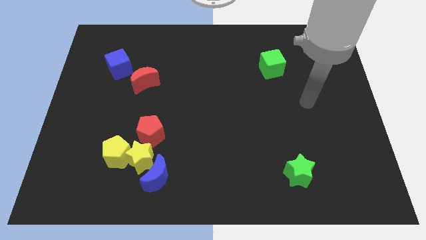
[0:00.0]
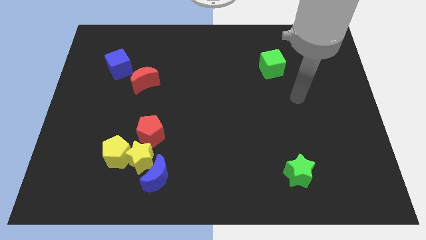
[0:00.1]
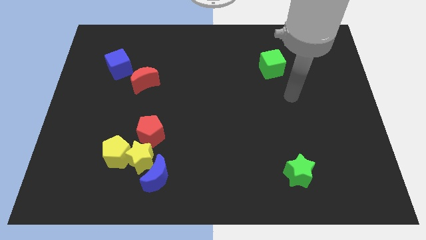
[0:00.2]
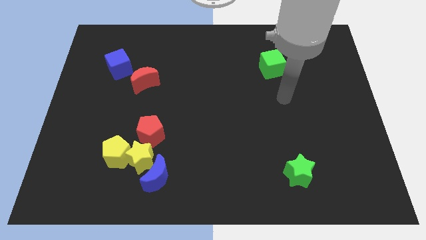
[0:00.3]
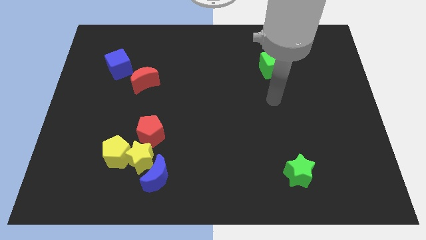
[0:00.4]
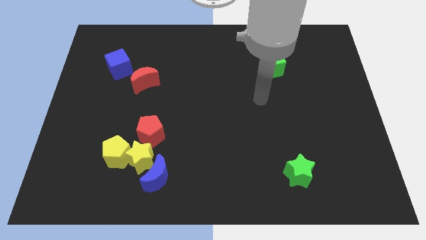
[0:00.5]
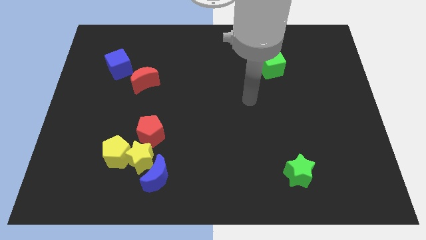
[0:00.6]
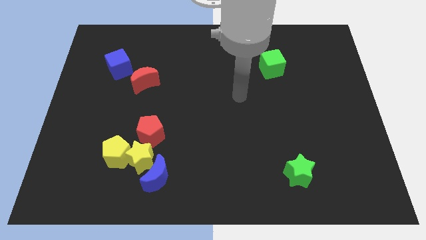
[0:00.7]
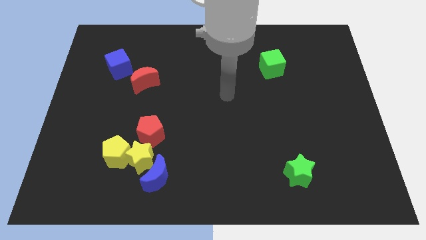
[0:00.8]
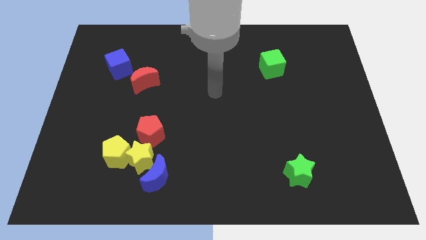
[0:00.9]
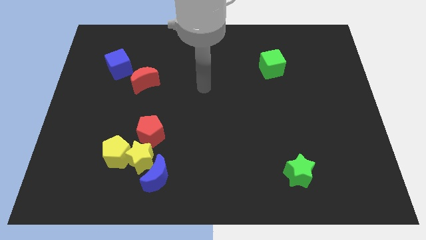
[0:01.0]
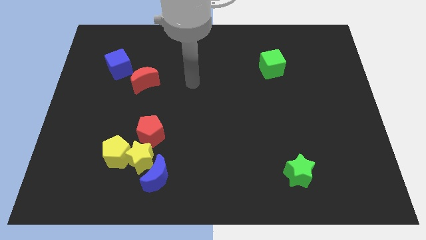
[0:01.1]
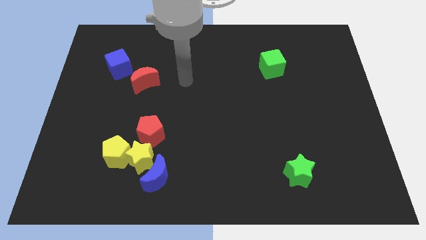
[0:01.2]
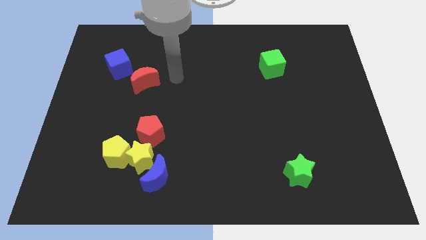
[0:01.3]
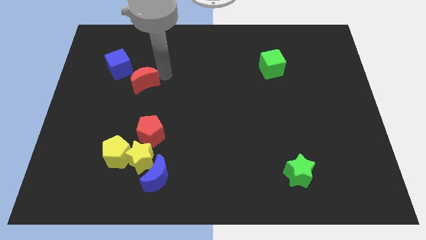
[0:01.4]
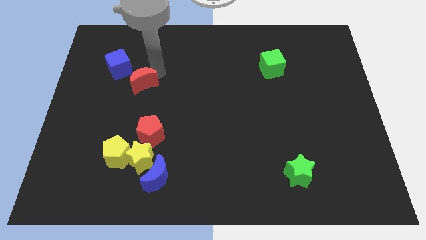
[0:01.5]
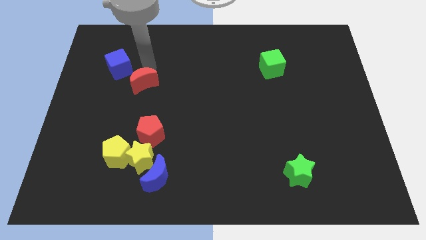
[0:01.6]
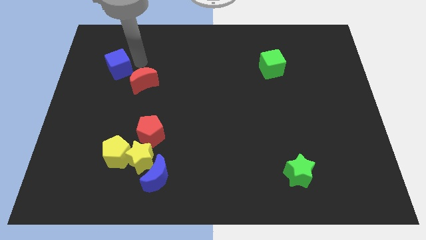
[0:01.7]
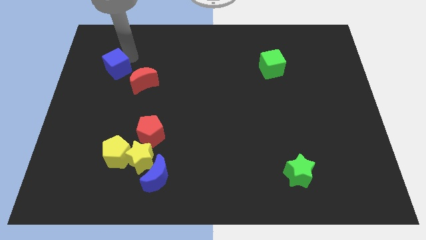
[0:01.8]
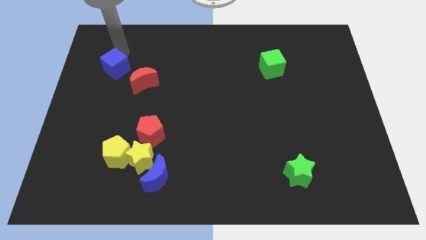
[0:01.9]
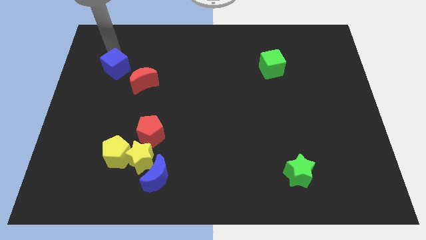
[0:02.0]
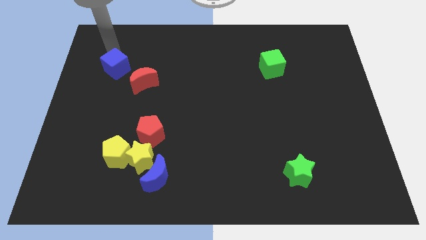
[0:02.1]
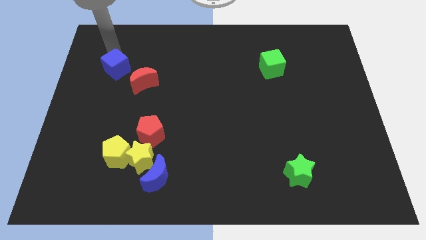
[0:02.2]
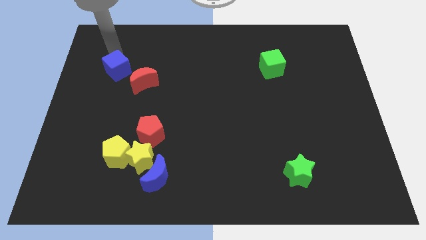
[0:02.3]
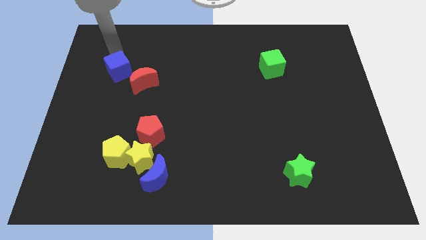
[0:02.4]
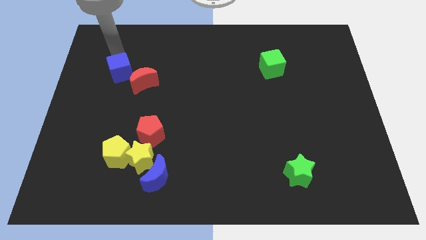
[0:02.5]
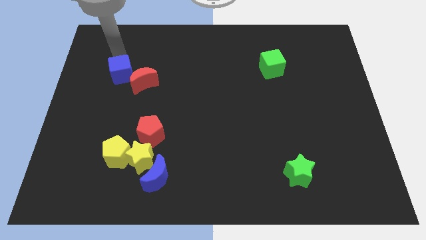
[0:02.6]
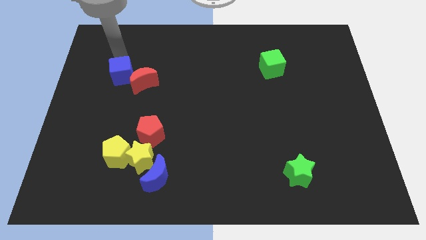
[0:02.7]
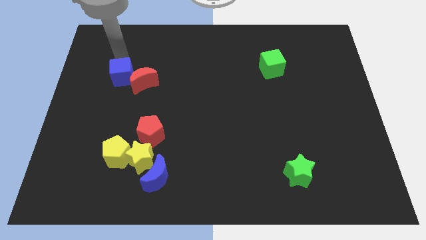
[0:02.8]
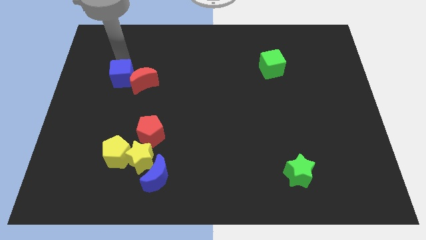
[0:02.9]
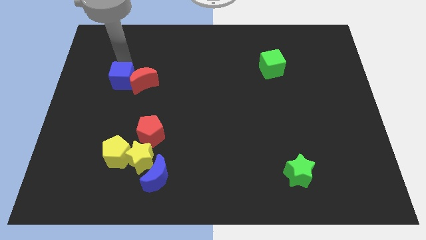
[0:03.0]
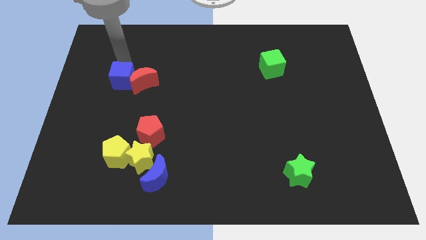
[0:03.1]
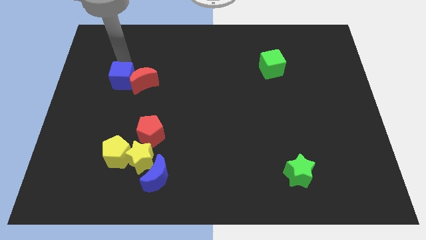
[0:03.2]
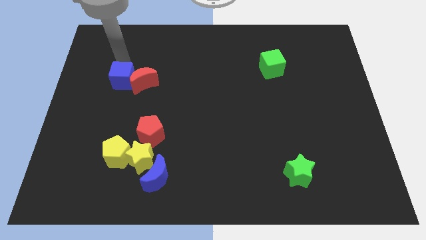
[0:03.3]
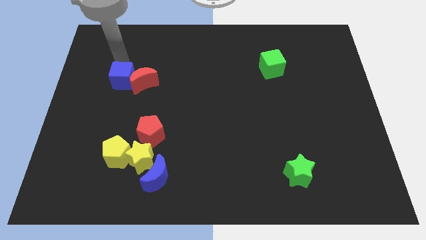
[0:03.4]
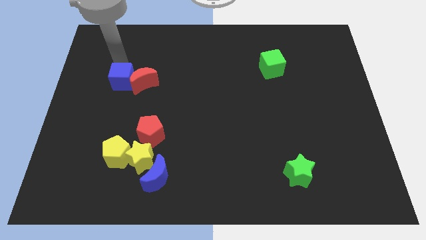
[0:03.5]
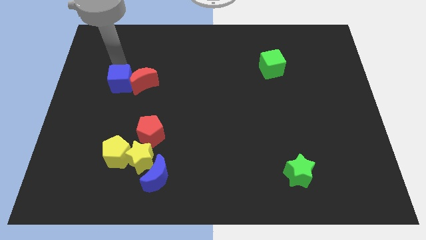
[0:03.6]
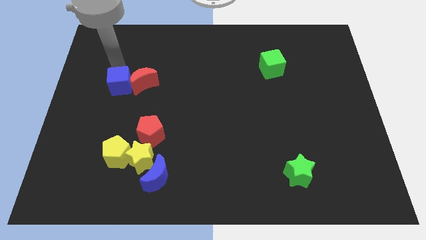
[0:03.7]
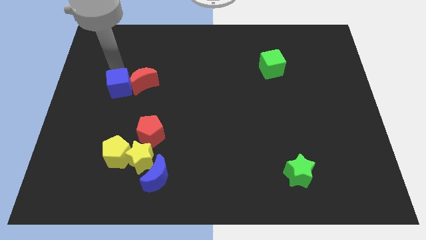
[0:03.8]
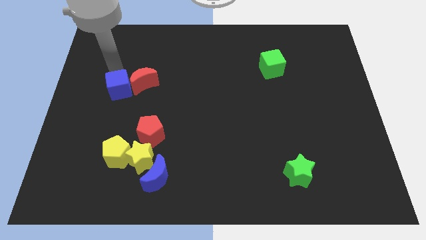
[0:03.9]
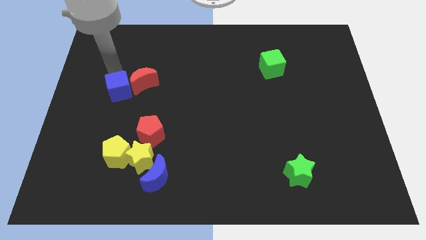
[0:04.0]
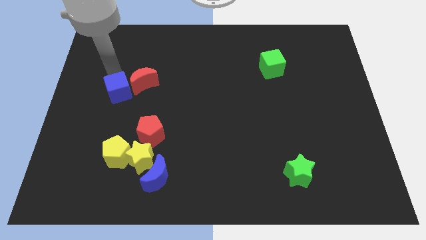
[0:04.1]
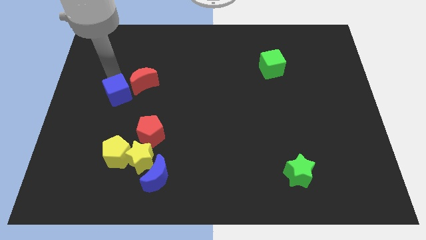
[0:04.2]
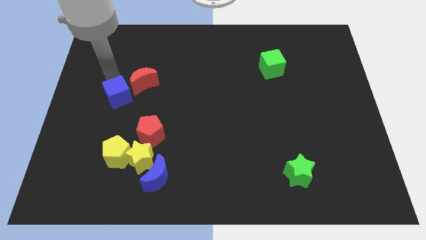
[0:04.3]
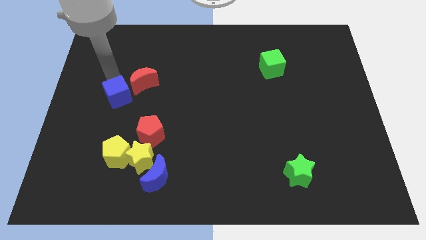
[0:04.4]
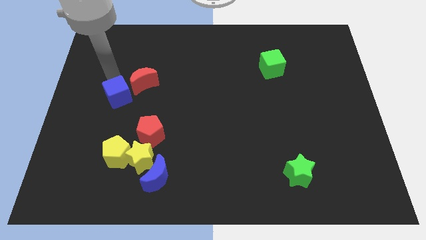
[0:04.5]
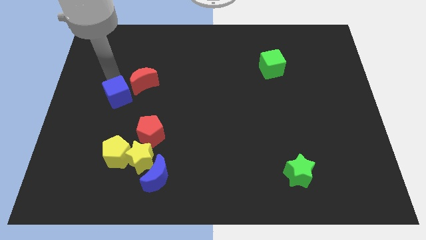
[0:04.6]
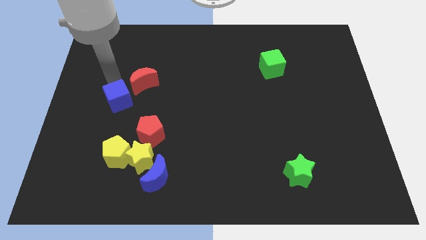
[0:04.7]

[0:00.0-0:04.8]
move the blue cube to the top side of the yellow pentagon

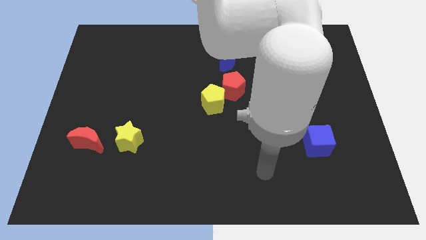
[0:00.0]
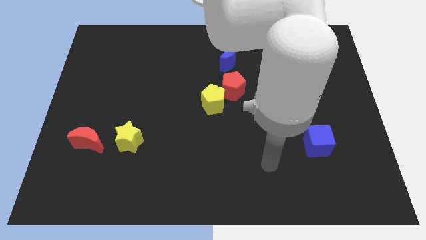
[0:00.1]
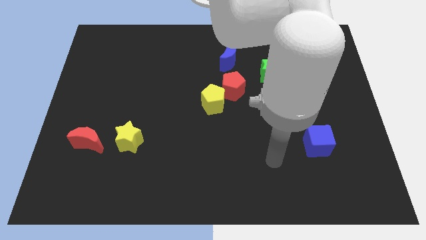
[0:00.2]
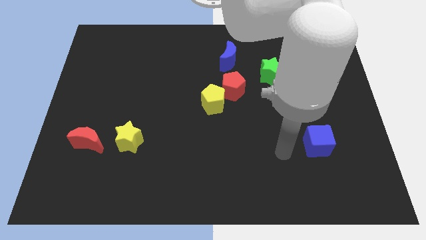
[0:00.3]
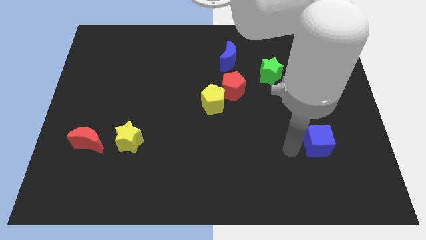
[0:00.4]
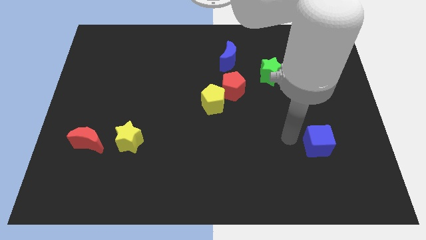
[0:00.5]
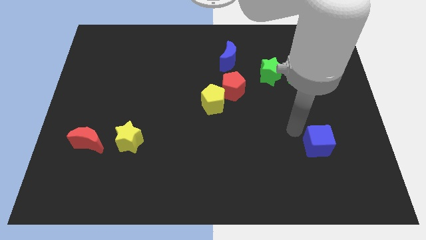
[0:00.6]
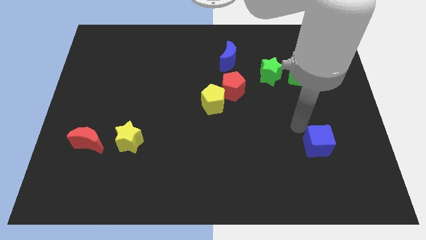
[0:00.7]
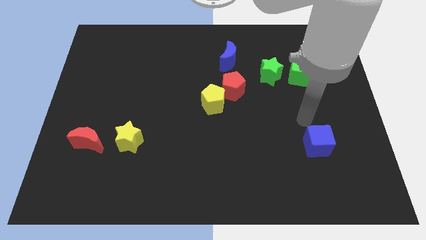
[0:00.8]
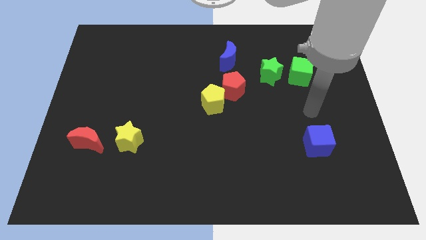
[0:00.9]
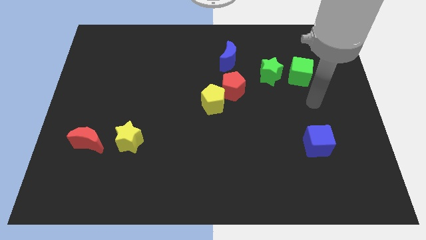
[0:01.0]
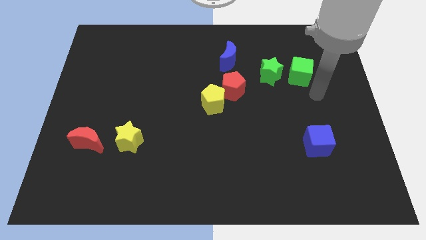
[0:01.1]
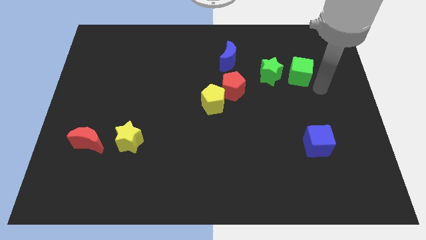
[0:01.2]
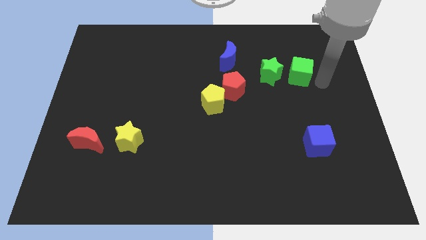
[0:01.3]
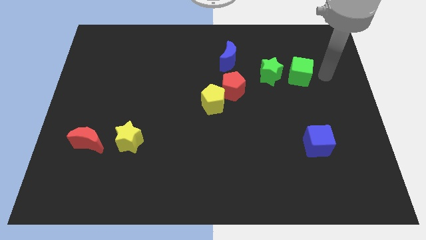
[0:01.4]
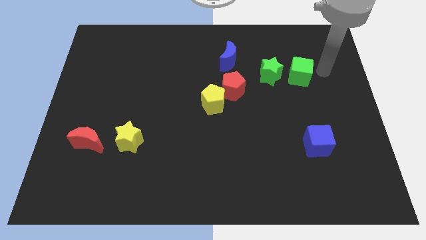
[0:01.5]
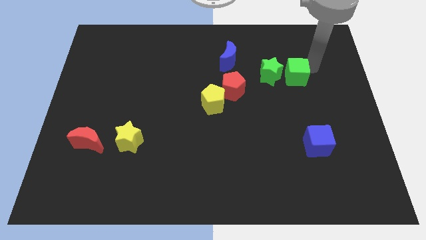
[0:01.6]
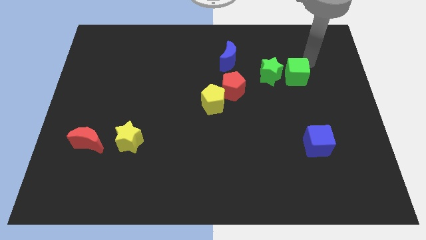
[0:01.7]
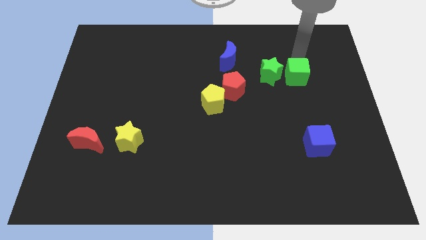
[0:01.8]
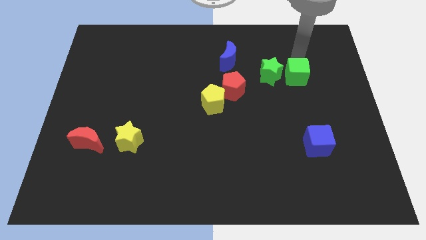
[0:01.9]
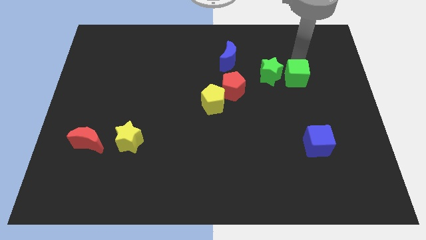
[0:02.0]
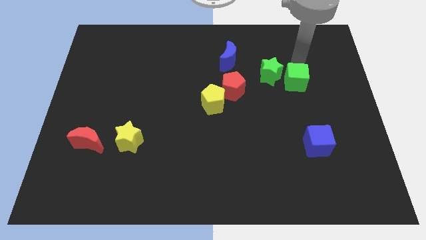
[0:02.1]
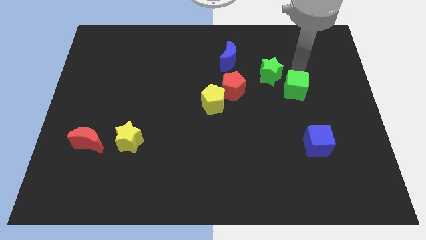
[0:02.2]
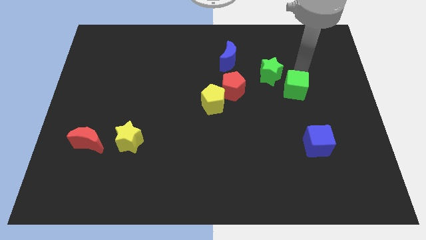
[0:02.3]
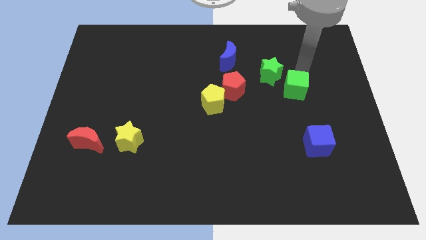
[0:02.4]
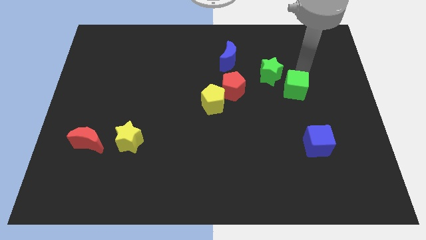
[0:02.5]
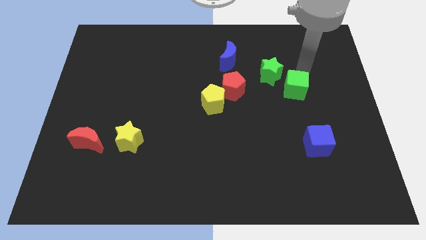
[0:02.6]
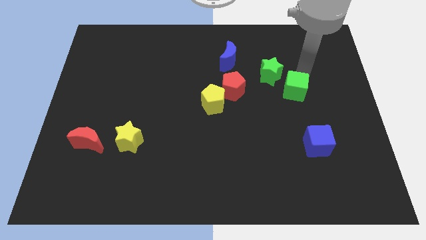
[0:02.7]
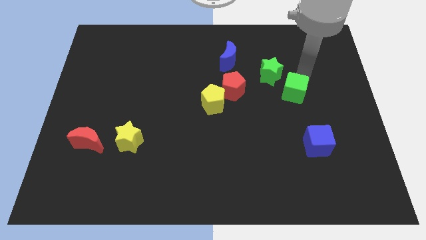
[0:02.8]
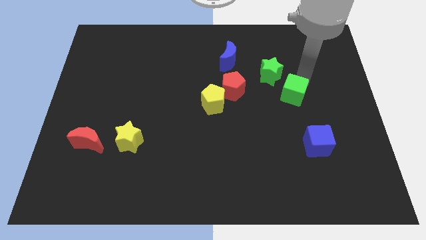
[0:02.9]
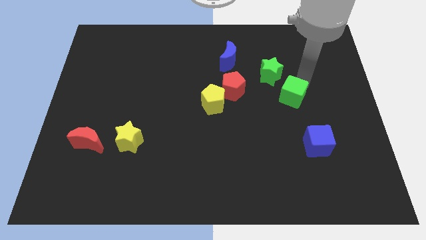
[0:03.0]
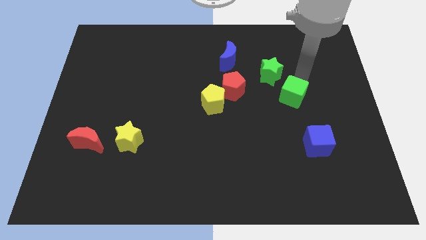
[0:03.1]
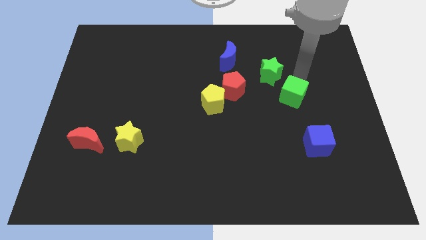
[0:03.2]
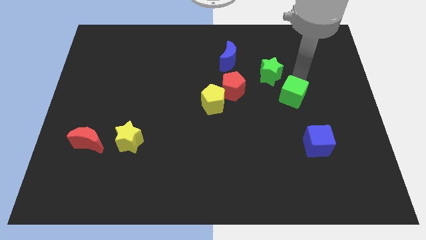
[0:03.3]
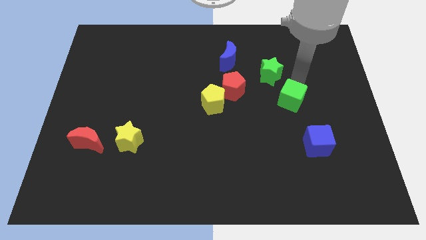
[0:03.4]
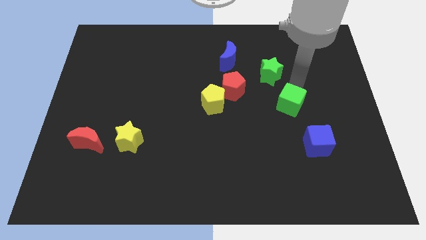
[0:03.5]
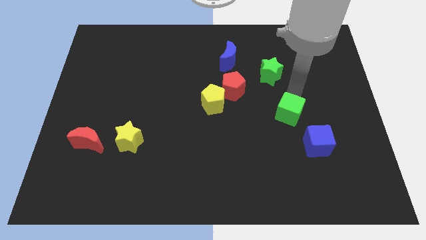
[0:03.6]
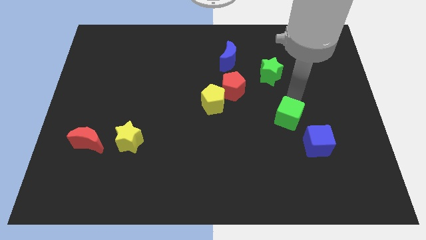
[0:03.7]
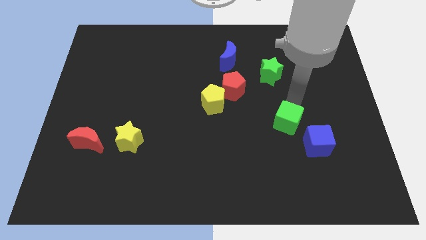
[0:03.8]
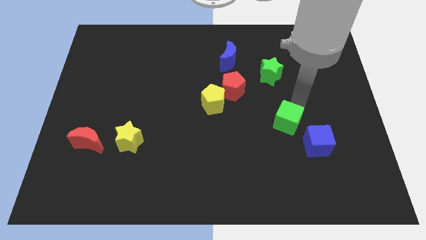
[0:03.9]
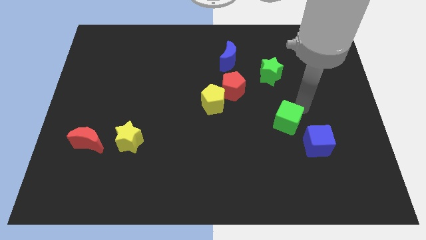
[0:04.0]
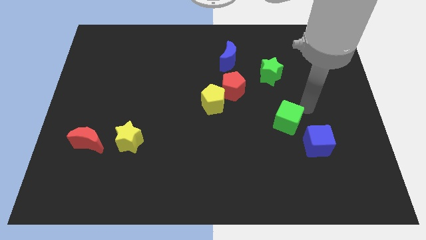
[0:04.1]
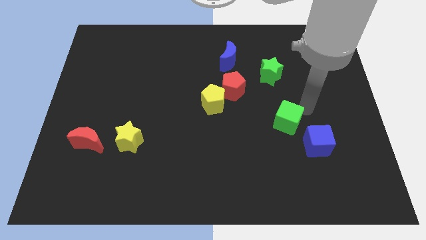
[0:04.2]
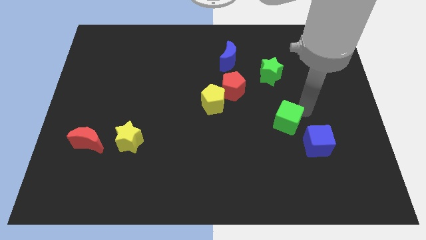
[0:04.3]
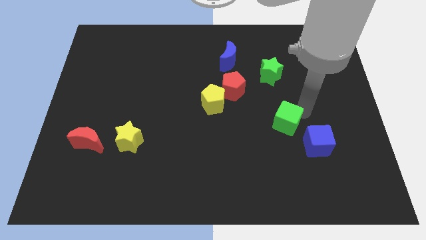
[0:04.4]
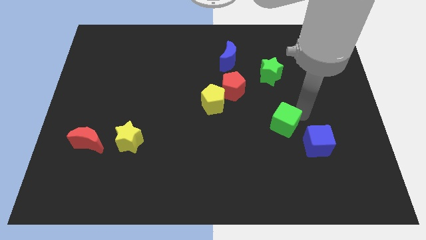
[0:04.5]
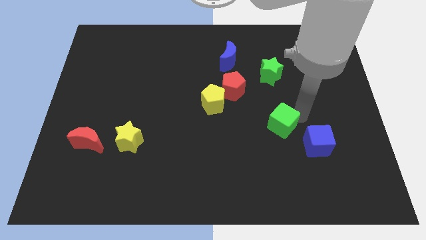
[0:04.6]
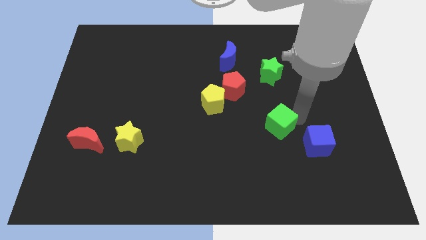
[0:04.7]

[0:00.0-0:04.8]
slide the green cube to the left of the blue cube
